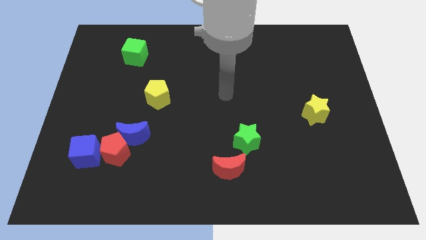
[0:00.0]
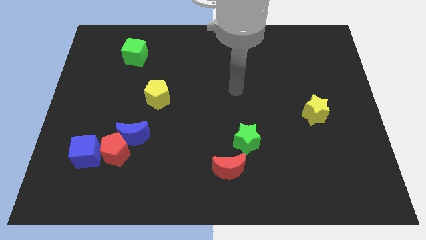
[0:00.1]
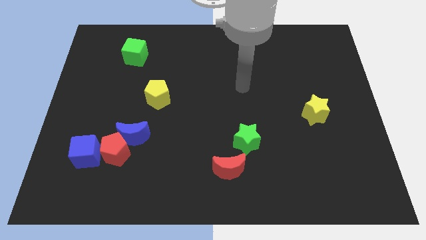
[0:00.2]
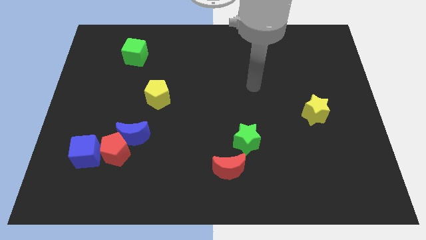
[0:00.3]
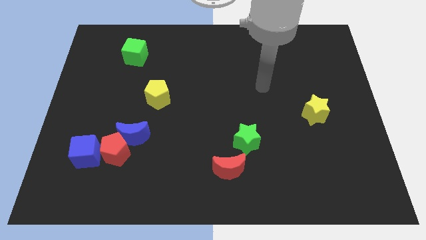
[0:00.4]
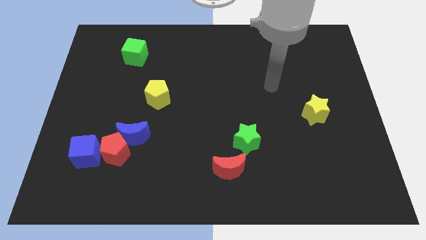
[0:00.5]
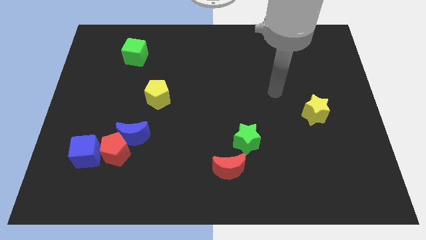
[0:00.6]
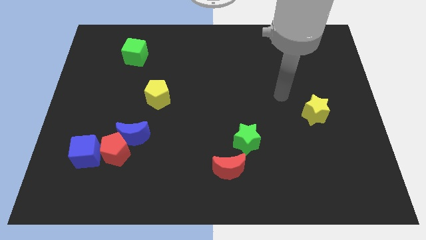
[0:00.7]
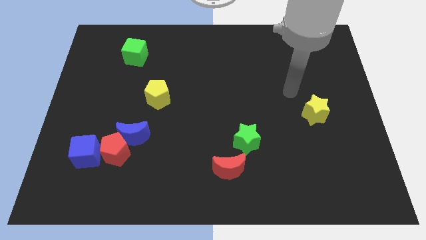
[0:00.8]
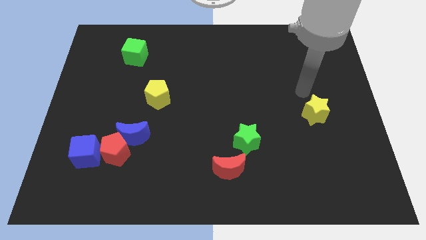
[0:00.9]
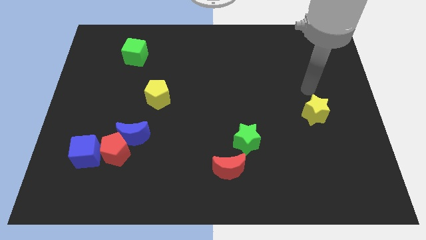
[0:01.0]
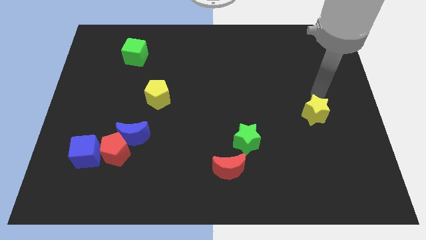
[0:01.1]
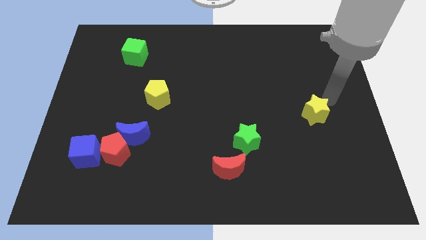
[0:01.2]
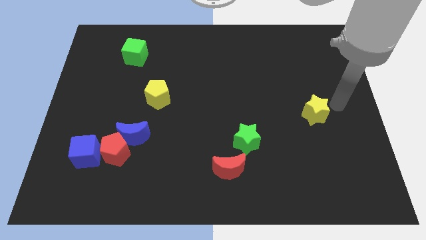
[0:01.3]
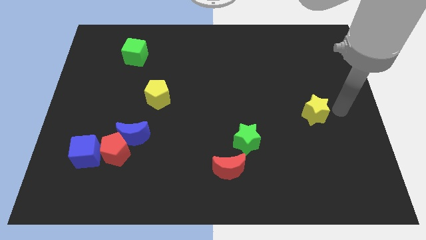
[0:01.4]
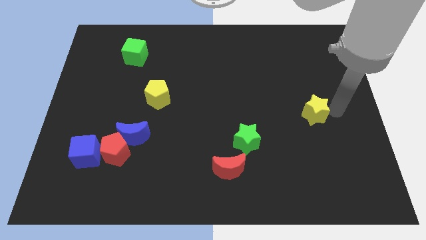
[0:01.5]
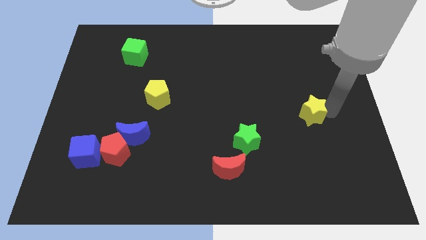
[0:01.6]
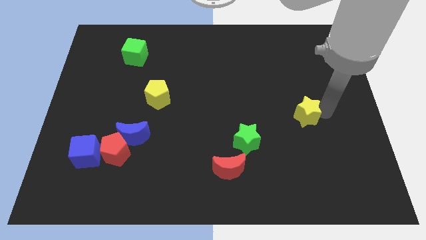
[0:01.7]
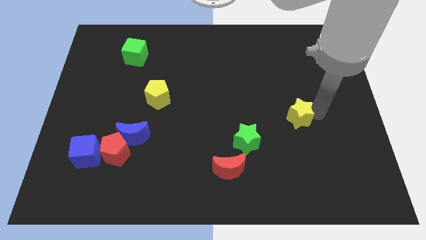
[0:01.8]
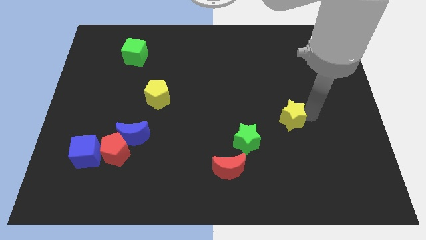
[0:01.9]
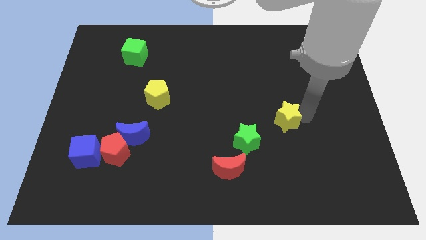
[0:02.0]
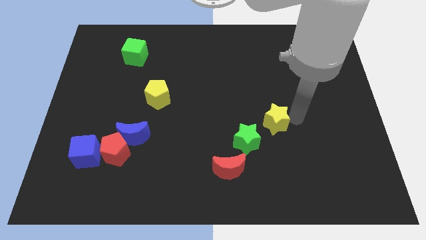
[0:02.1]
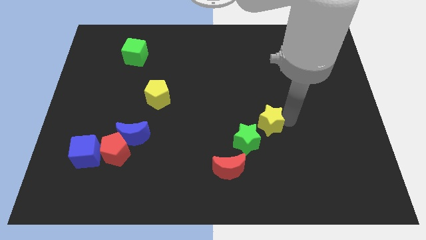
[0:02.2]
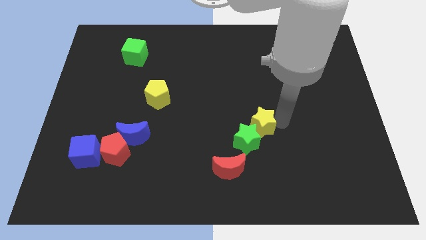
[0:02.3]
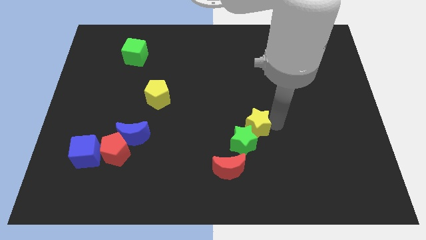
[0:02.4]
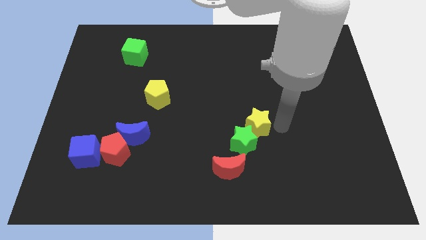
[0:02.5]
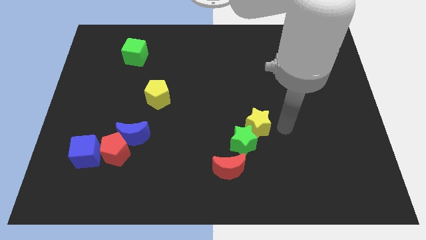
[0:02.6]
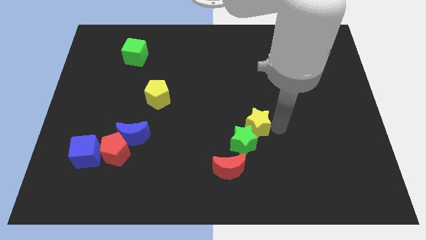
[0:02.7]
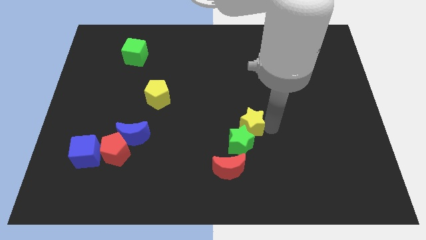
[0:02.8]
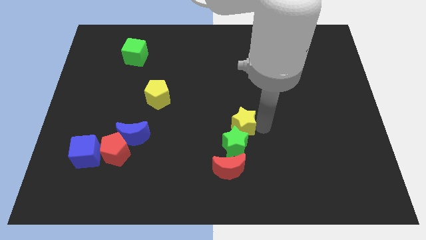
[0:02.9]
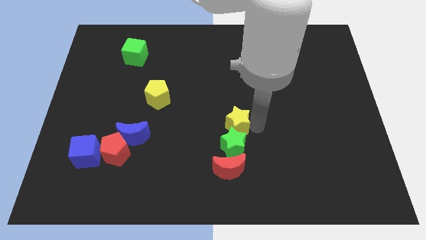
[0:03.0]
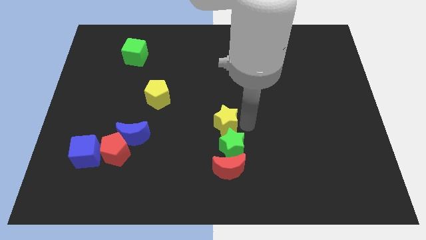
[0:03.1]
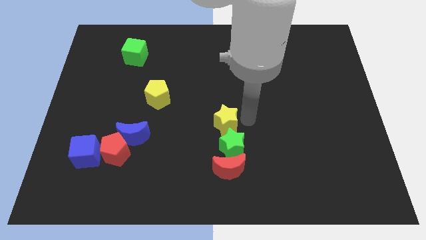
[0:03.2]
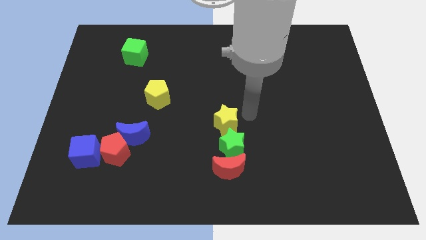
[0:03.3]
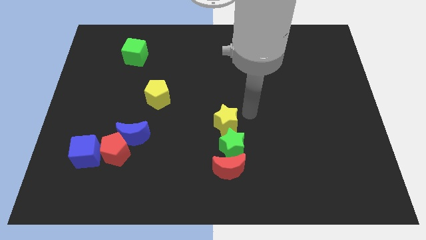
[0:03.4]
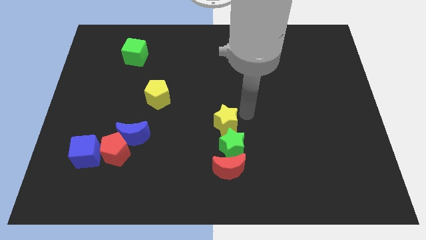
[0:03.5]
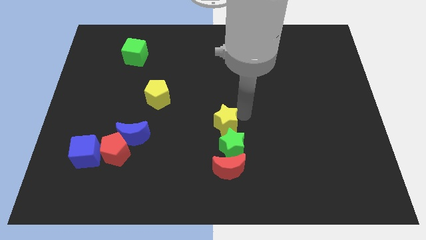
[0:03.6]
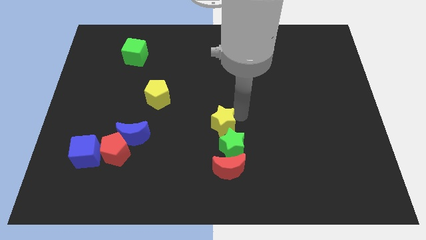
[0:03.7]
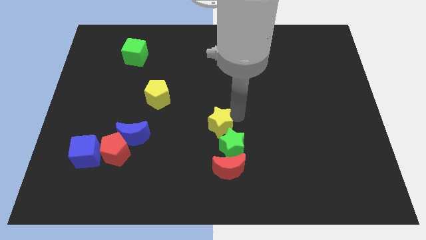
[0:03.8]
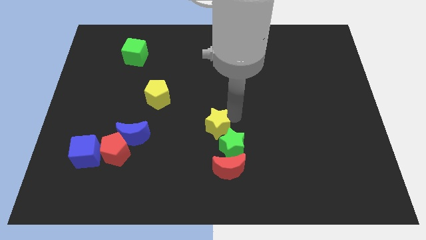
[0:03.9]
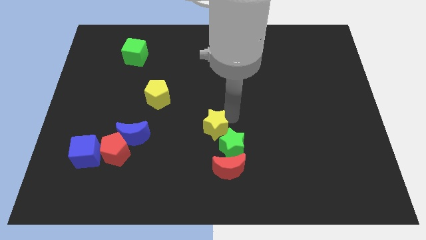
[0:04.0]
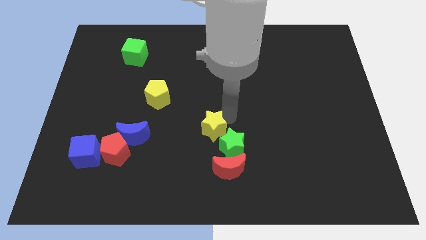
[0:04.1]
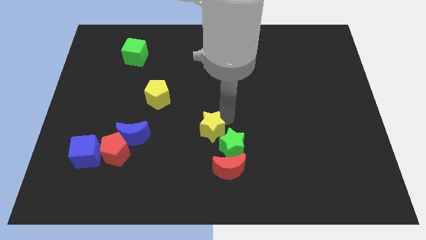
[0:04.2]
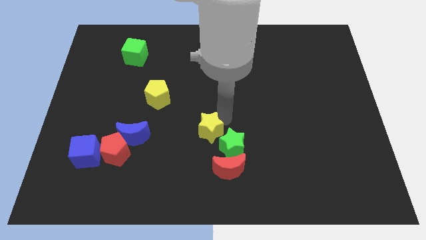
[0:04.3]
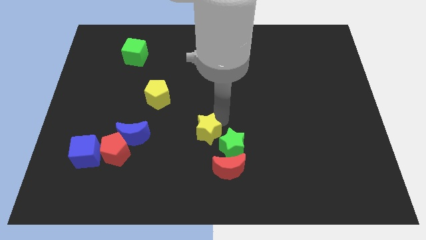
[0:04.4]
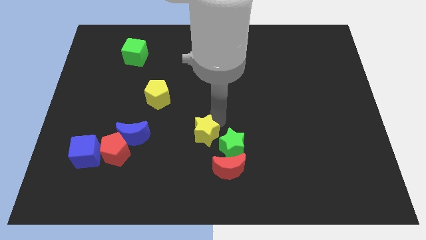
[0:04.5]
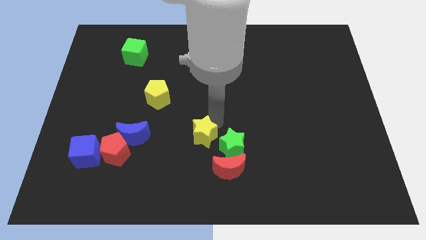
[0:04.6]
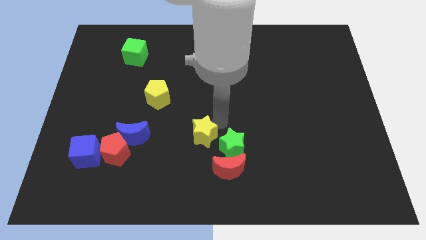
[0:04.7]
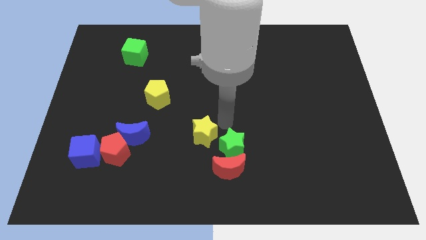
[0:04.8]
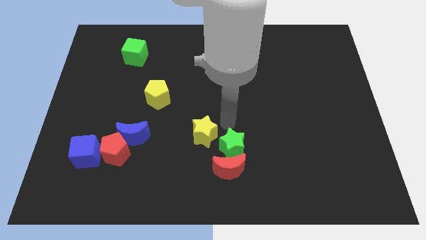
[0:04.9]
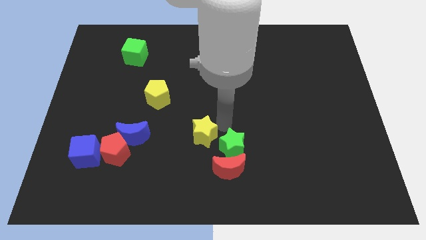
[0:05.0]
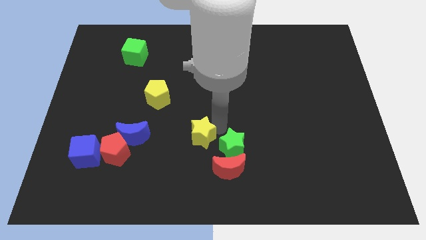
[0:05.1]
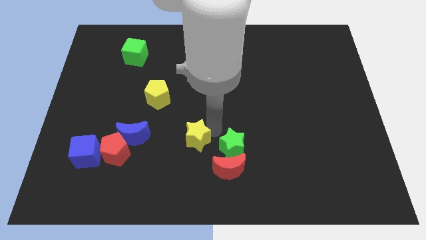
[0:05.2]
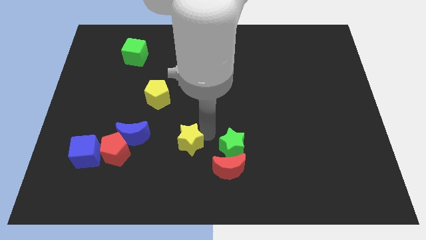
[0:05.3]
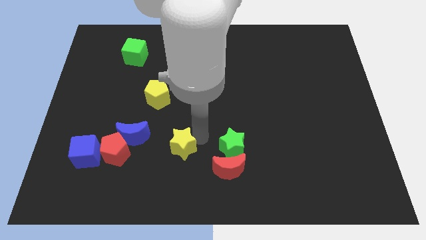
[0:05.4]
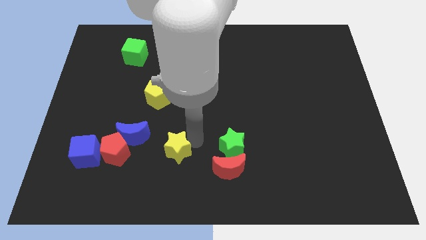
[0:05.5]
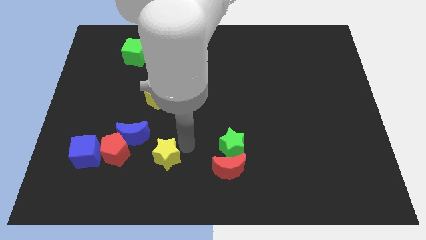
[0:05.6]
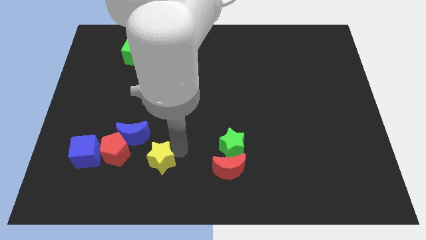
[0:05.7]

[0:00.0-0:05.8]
push the yellow star to the right of the blue cube

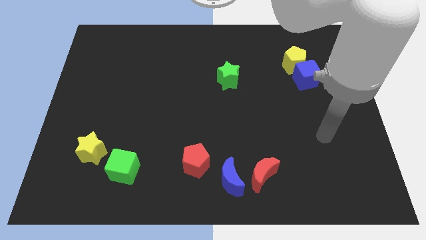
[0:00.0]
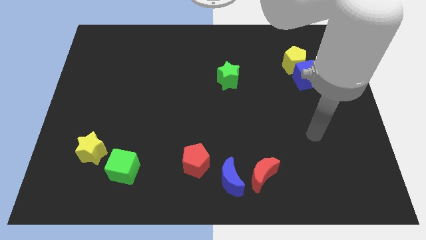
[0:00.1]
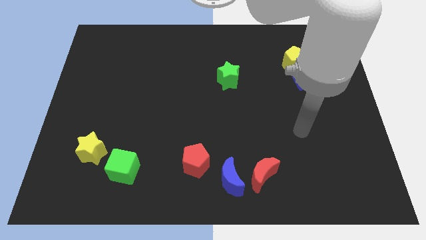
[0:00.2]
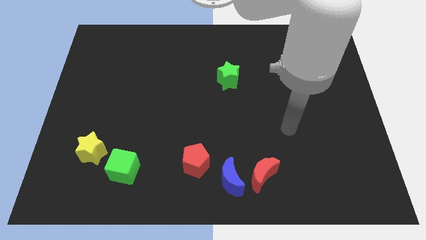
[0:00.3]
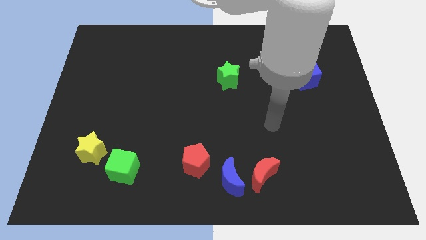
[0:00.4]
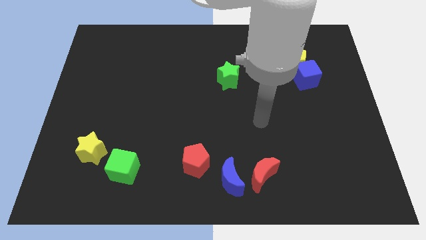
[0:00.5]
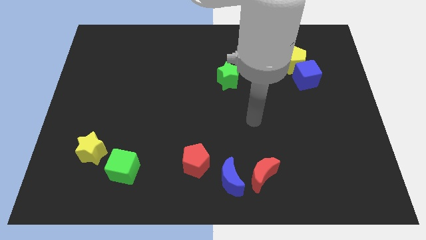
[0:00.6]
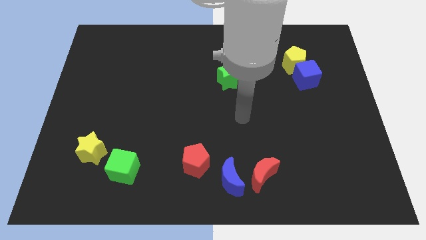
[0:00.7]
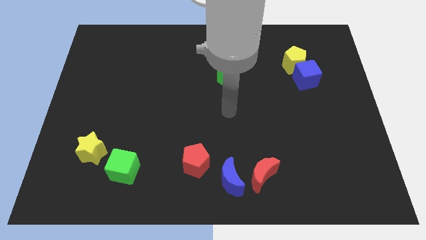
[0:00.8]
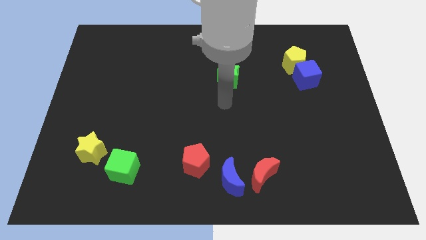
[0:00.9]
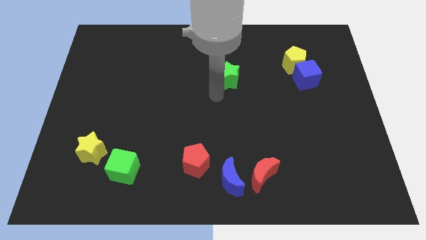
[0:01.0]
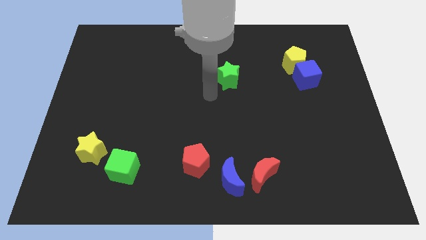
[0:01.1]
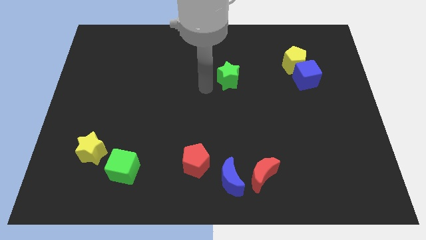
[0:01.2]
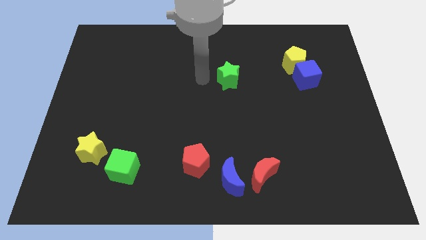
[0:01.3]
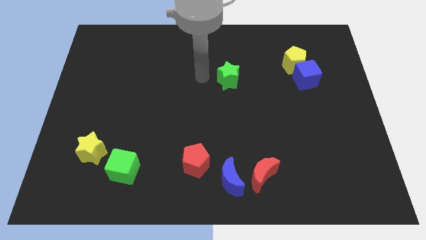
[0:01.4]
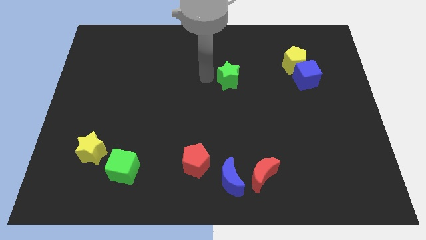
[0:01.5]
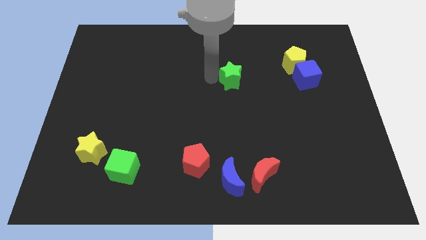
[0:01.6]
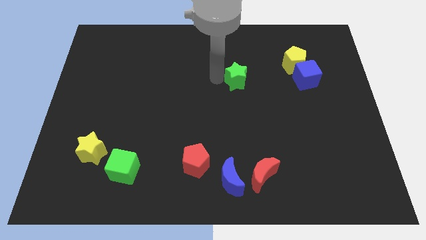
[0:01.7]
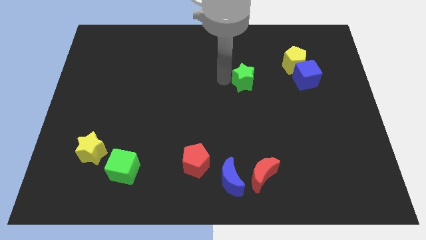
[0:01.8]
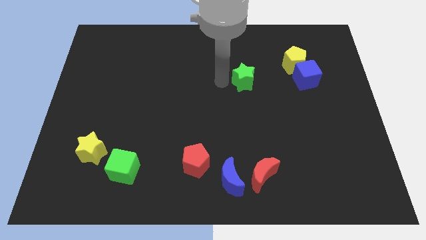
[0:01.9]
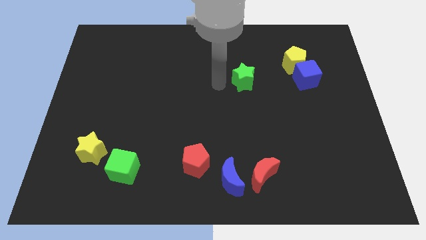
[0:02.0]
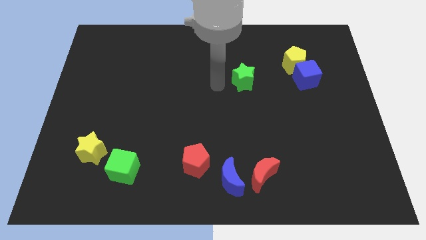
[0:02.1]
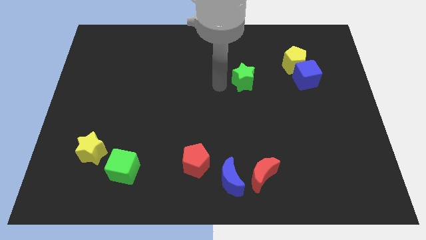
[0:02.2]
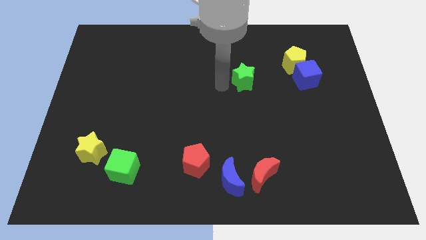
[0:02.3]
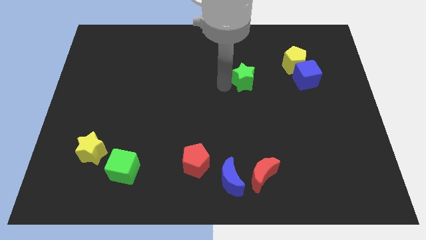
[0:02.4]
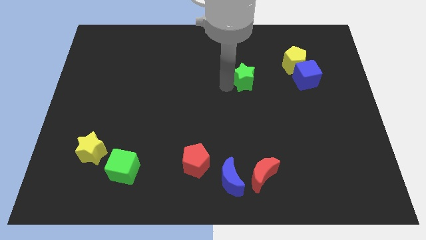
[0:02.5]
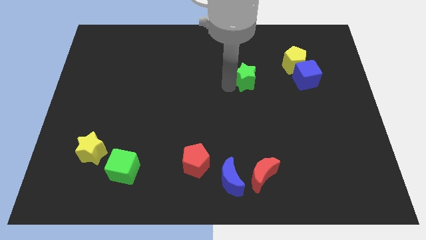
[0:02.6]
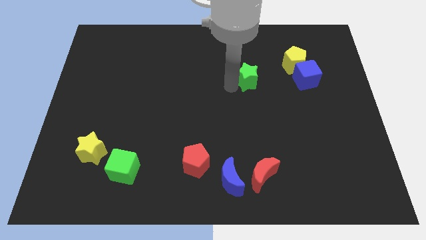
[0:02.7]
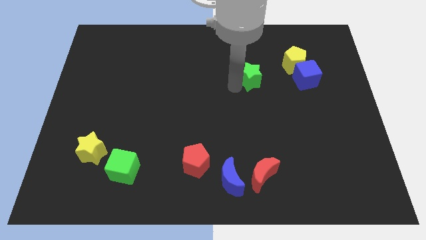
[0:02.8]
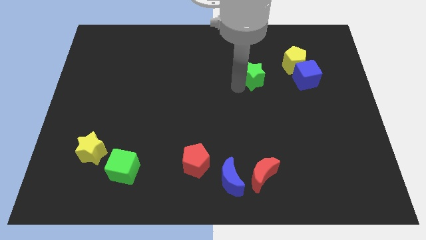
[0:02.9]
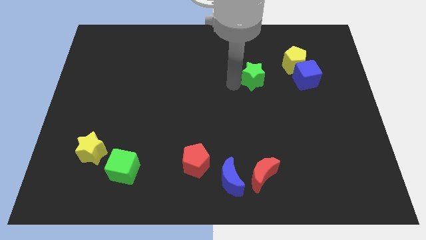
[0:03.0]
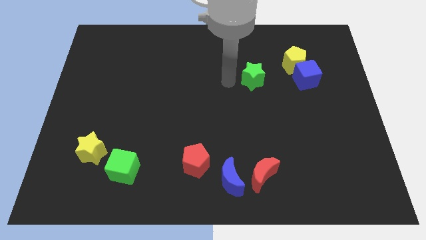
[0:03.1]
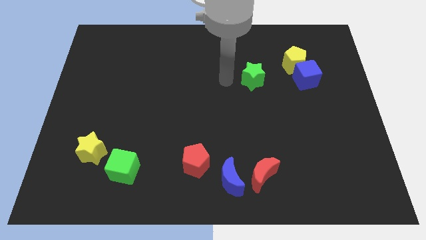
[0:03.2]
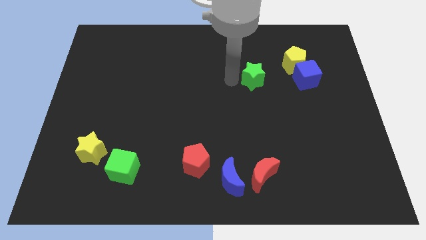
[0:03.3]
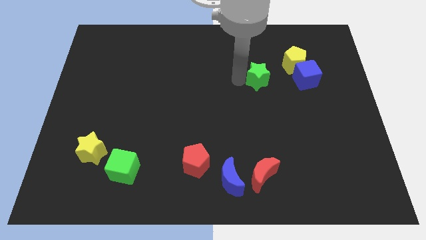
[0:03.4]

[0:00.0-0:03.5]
put the green star to the bottom left side of the yellow pentagon
